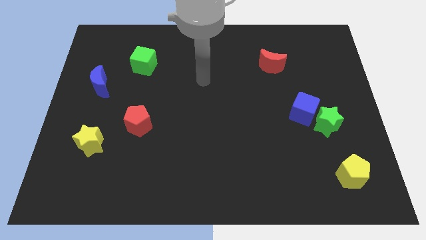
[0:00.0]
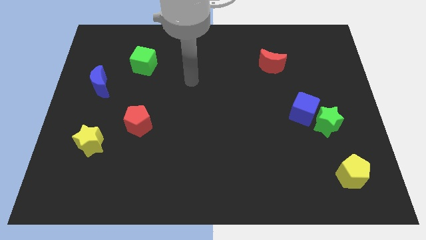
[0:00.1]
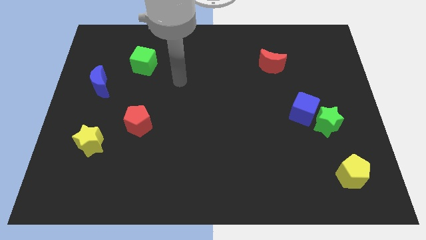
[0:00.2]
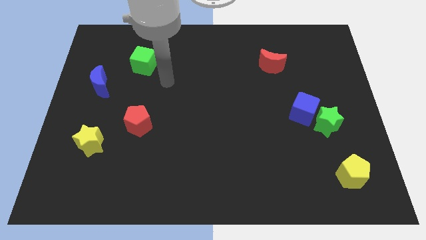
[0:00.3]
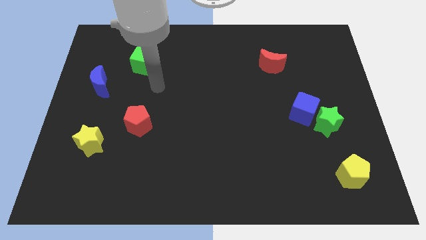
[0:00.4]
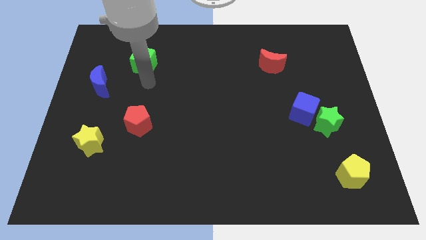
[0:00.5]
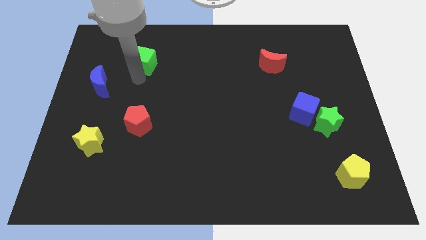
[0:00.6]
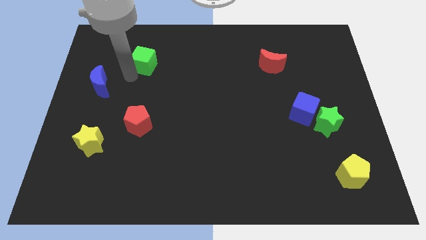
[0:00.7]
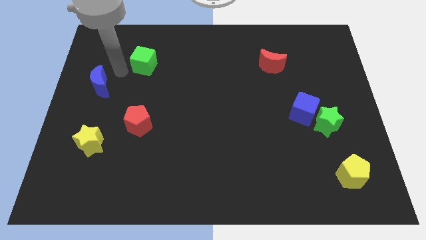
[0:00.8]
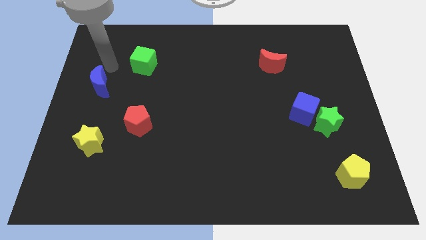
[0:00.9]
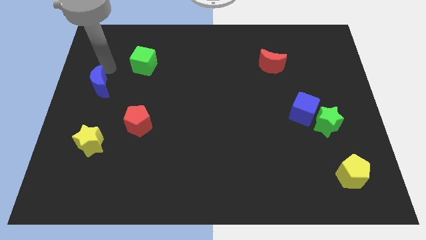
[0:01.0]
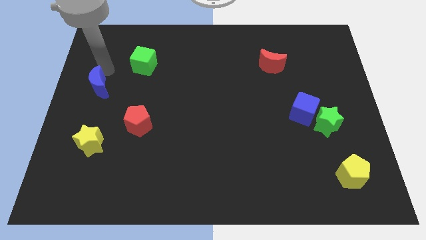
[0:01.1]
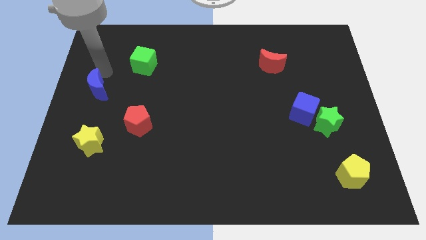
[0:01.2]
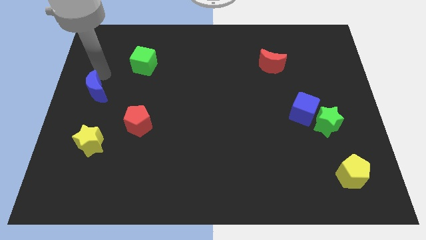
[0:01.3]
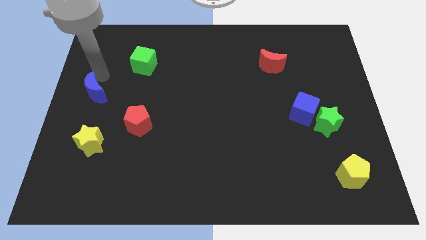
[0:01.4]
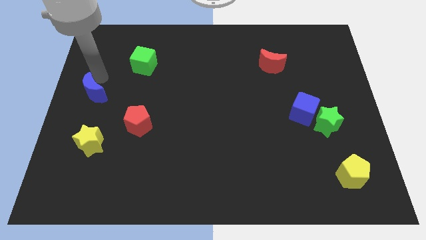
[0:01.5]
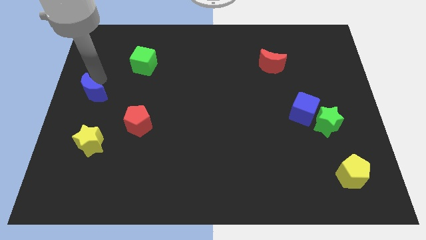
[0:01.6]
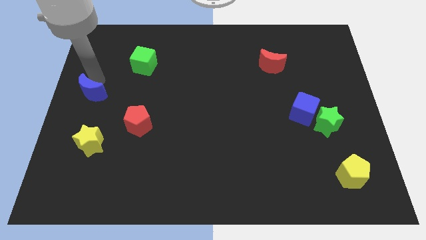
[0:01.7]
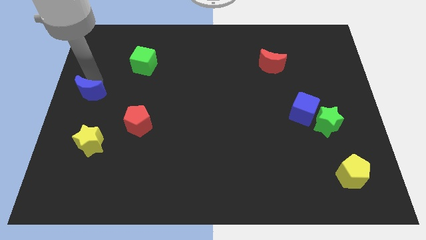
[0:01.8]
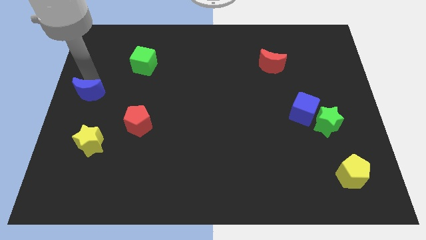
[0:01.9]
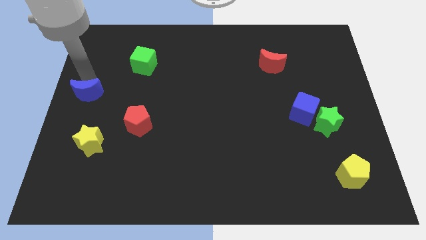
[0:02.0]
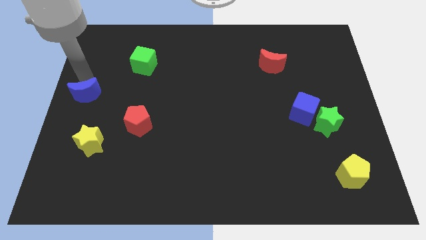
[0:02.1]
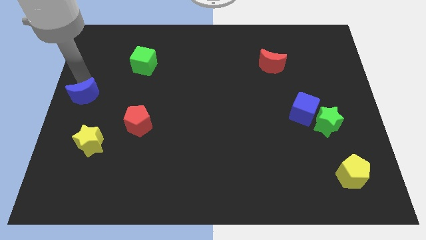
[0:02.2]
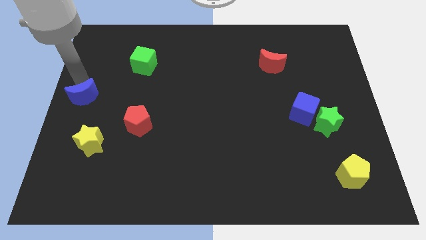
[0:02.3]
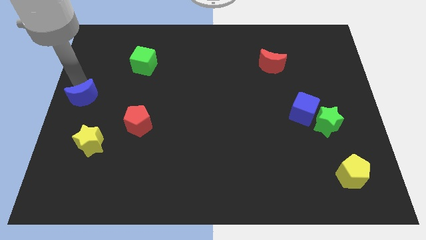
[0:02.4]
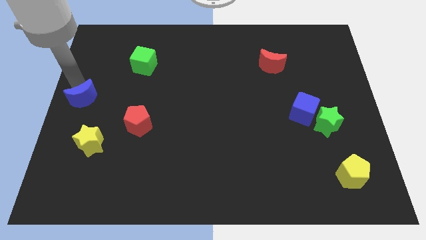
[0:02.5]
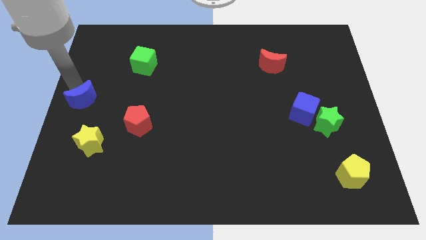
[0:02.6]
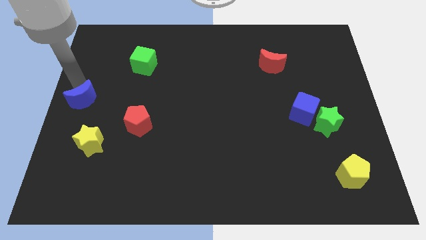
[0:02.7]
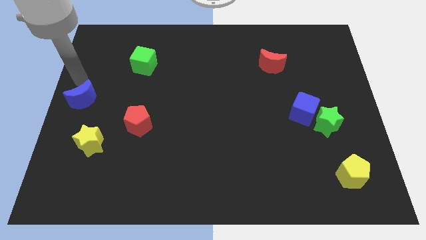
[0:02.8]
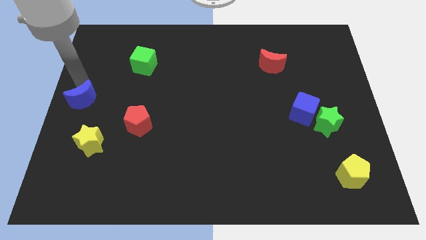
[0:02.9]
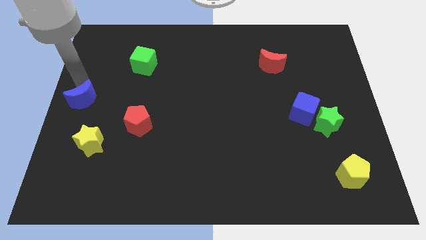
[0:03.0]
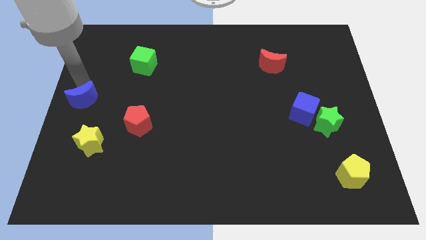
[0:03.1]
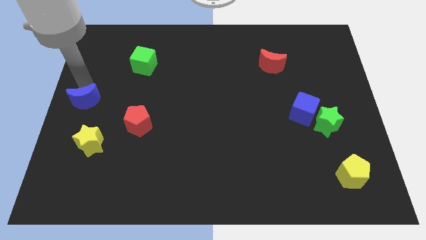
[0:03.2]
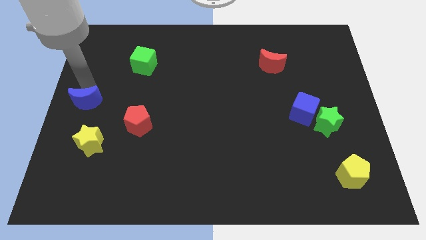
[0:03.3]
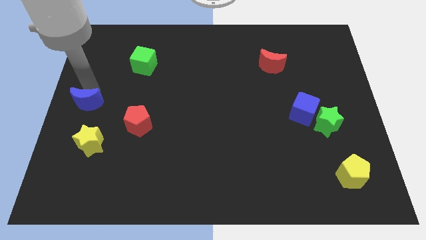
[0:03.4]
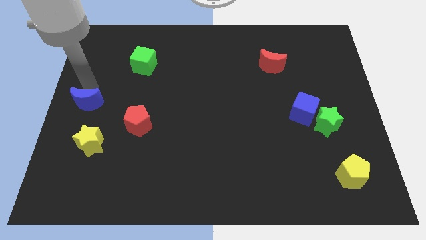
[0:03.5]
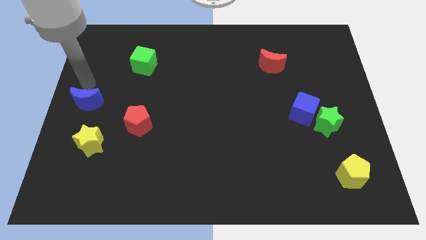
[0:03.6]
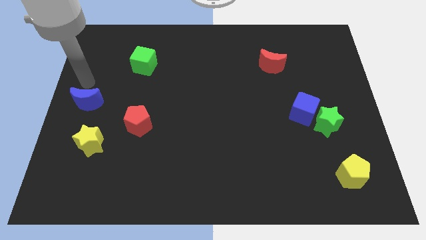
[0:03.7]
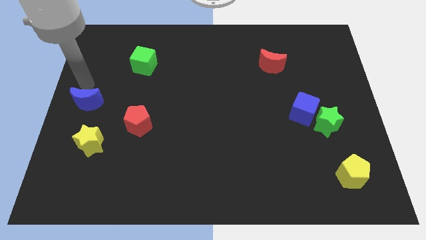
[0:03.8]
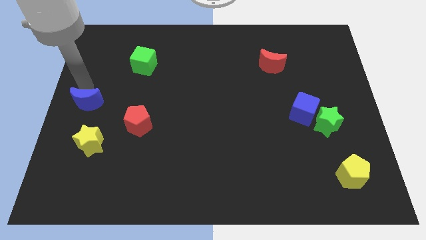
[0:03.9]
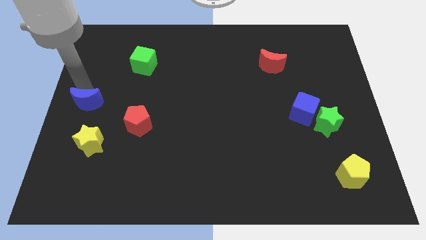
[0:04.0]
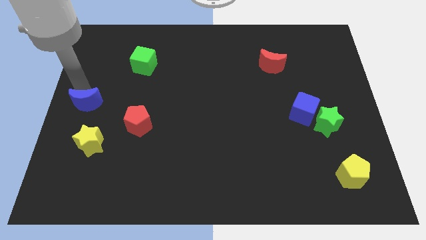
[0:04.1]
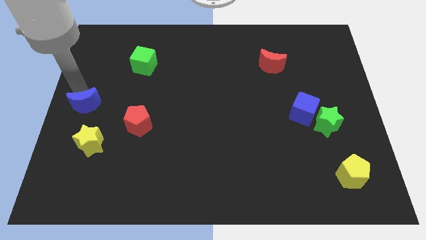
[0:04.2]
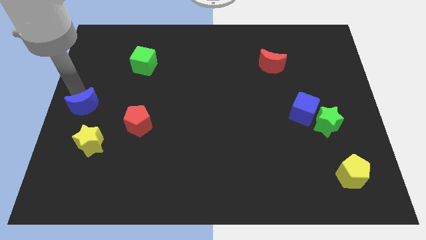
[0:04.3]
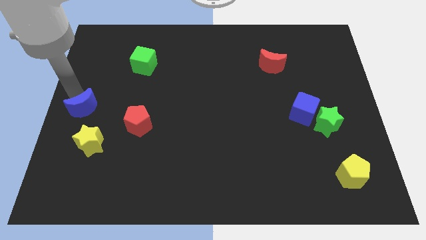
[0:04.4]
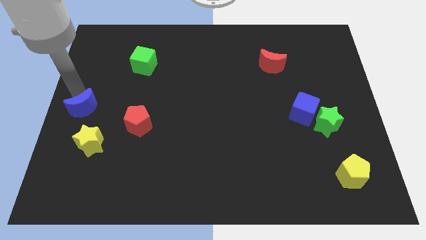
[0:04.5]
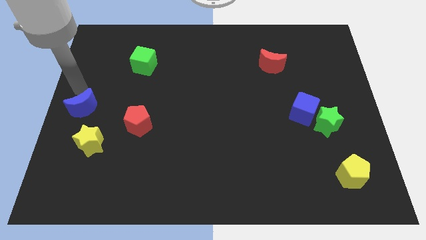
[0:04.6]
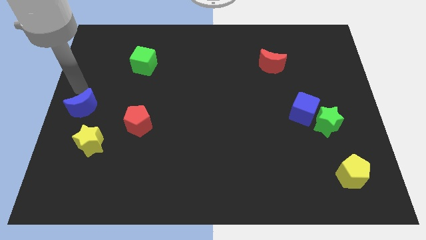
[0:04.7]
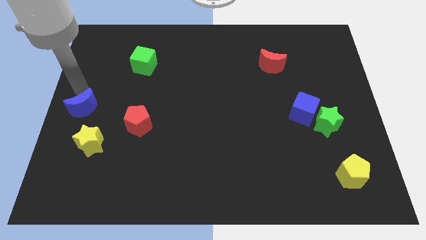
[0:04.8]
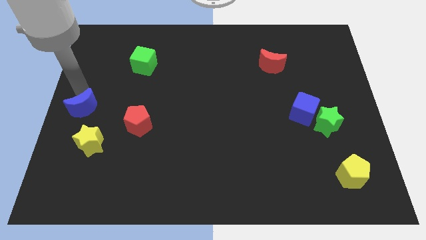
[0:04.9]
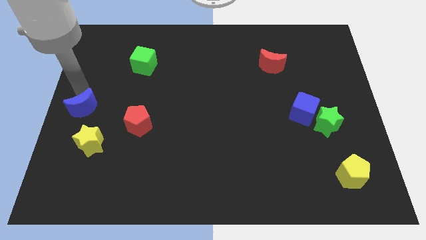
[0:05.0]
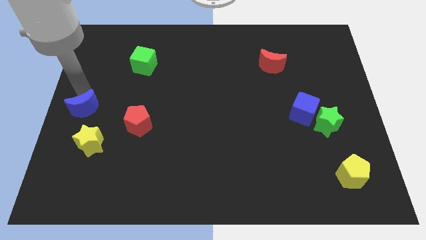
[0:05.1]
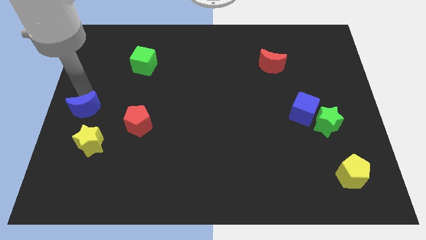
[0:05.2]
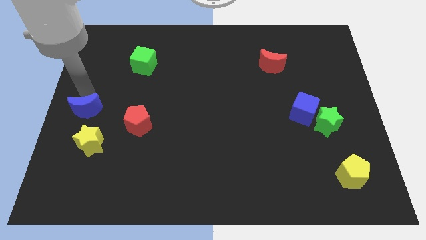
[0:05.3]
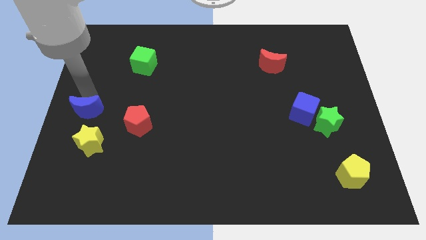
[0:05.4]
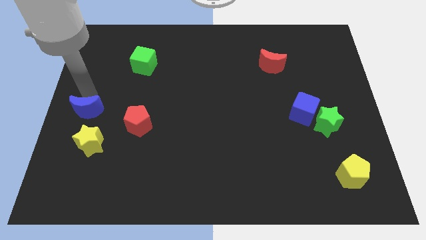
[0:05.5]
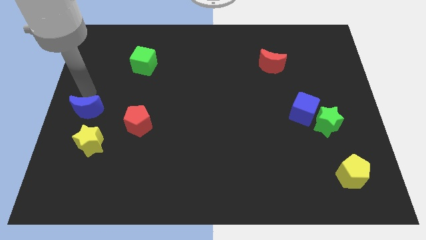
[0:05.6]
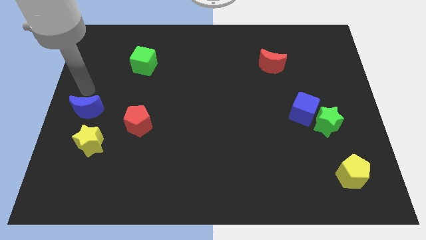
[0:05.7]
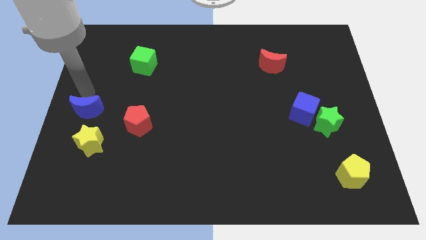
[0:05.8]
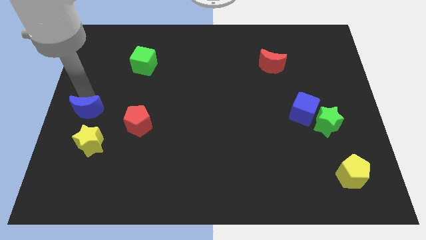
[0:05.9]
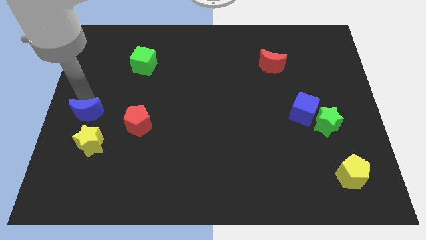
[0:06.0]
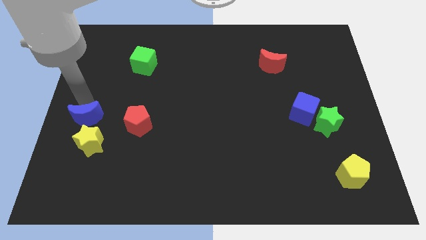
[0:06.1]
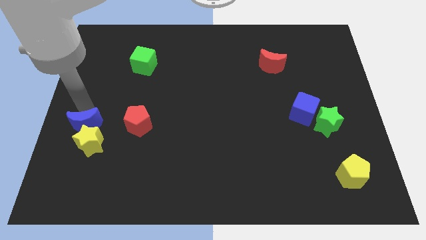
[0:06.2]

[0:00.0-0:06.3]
put the blue moon next to the yellow star

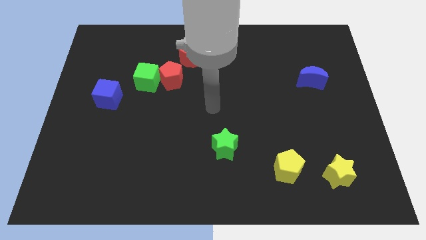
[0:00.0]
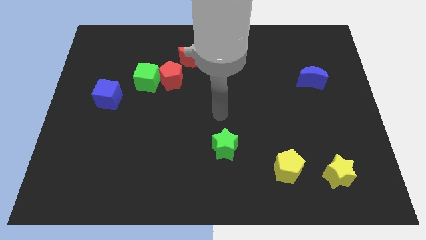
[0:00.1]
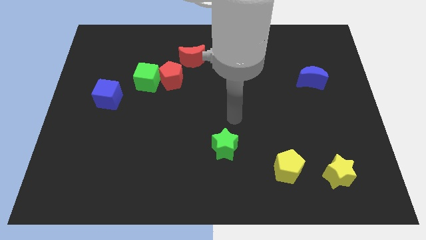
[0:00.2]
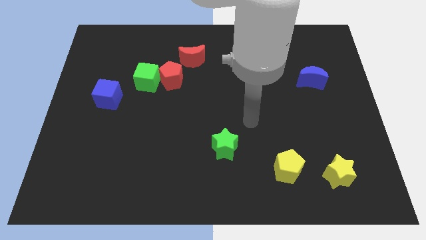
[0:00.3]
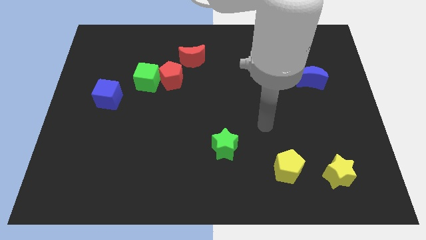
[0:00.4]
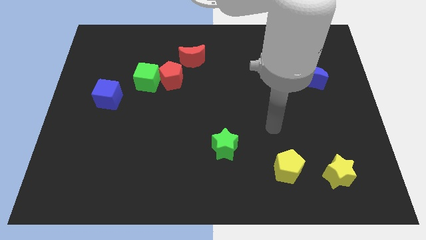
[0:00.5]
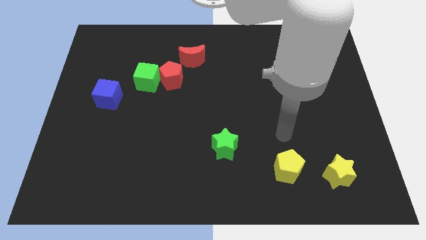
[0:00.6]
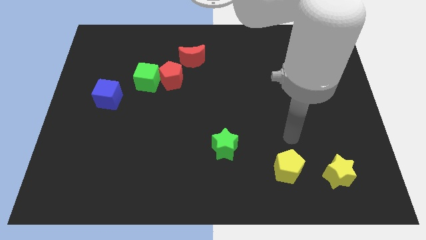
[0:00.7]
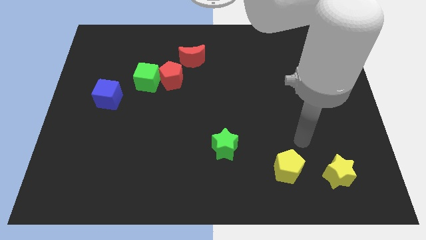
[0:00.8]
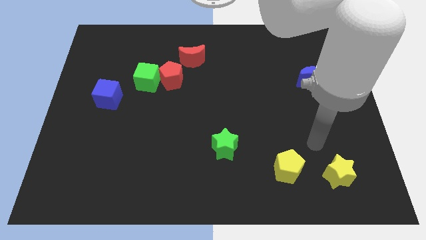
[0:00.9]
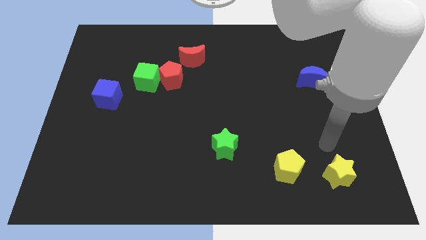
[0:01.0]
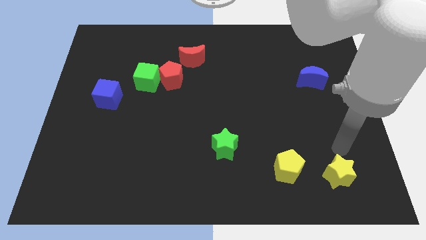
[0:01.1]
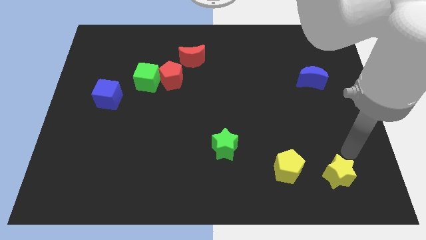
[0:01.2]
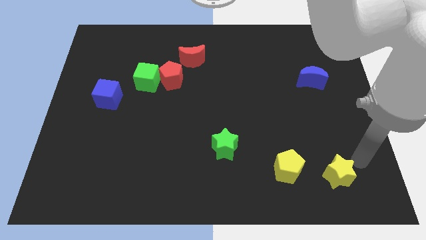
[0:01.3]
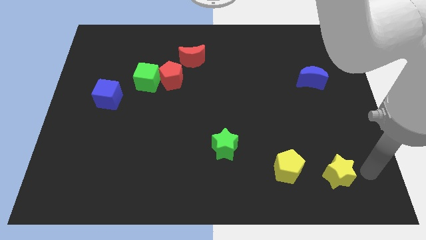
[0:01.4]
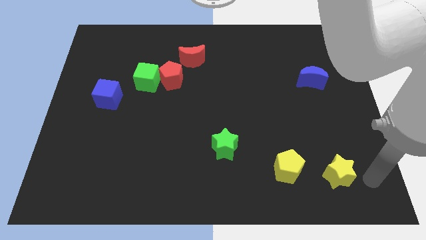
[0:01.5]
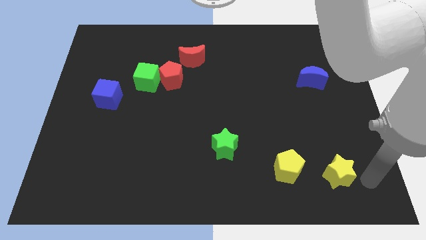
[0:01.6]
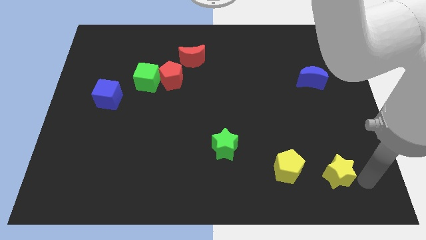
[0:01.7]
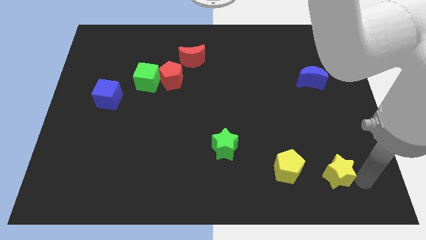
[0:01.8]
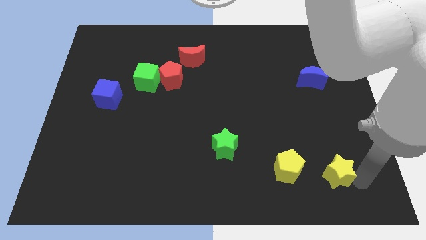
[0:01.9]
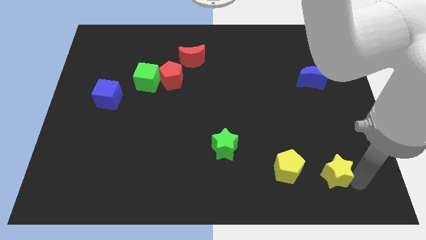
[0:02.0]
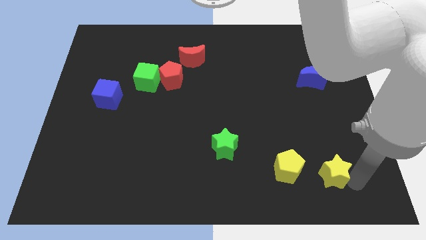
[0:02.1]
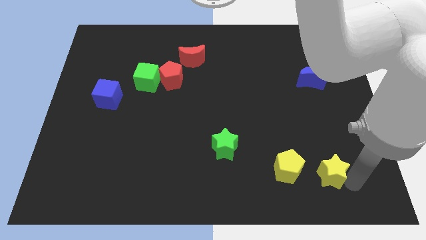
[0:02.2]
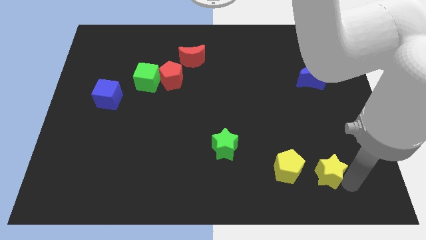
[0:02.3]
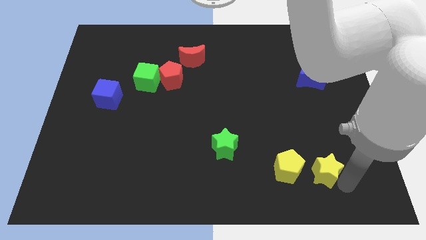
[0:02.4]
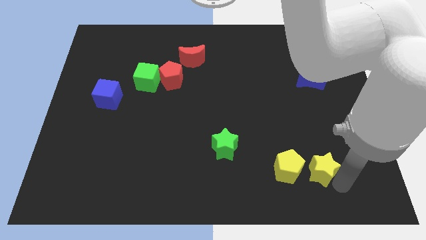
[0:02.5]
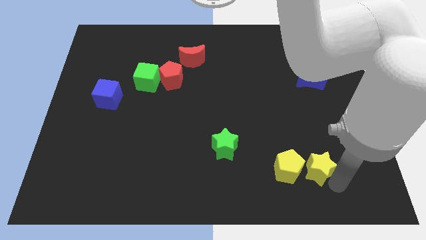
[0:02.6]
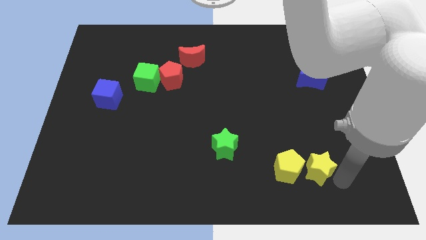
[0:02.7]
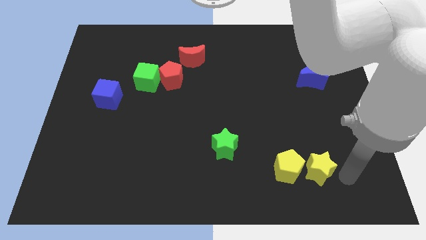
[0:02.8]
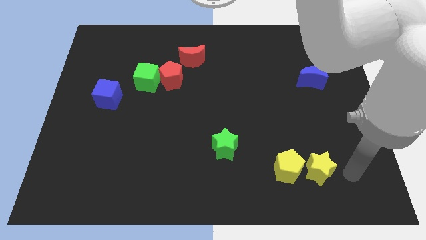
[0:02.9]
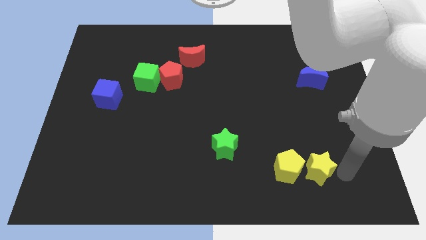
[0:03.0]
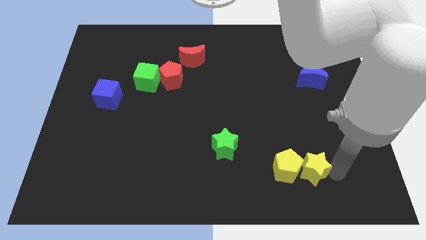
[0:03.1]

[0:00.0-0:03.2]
move the yellow star towards the yellow pentagon
